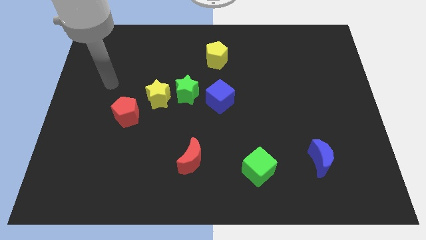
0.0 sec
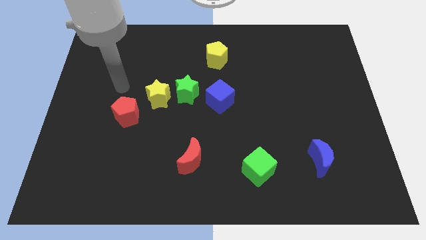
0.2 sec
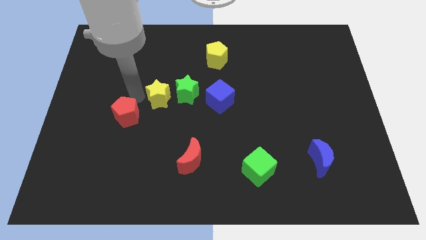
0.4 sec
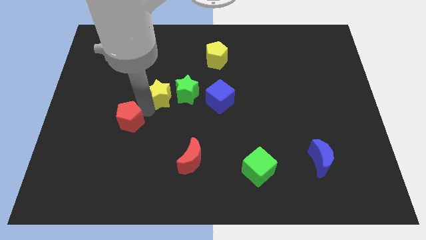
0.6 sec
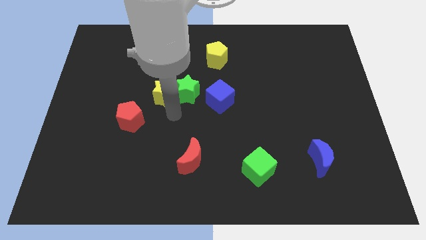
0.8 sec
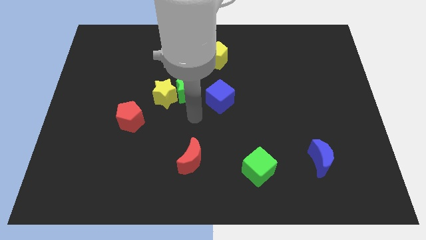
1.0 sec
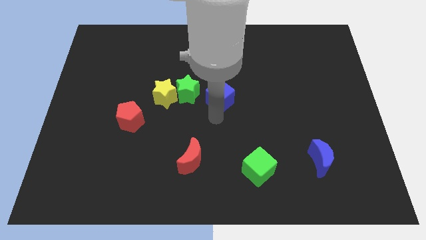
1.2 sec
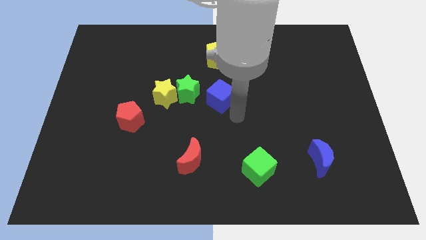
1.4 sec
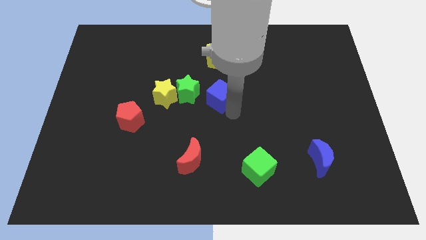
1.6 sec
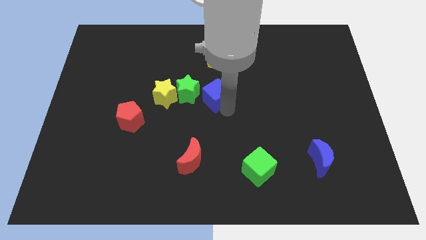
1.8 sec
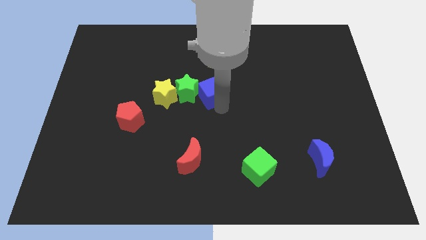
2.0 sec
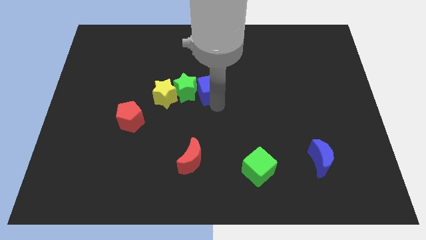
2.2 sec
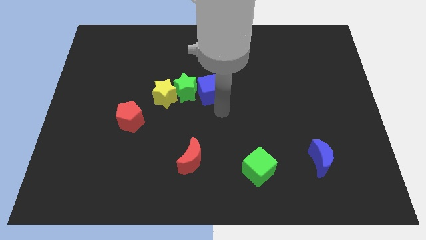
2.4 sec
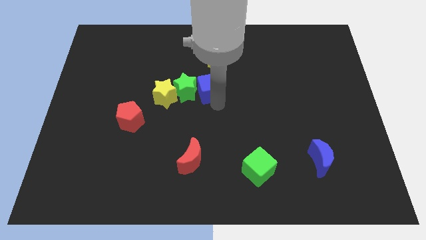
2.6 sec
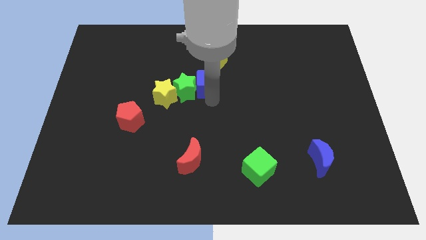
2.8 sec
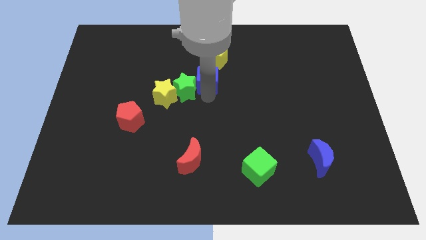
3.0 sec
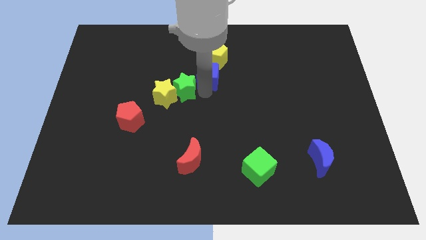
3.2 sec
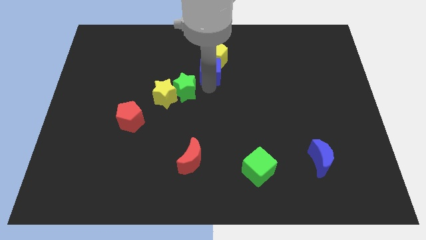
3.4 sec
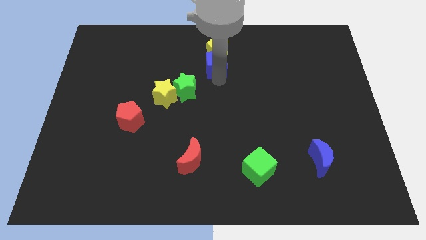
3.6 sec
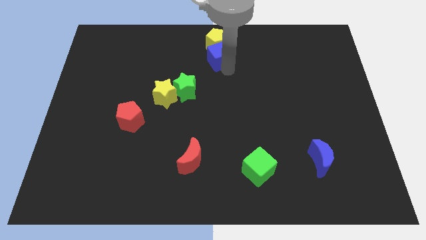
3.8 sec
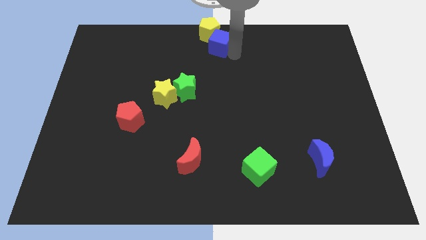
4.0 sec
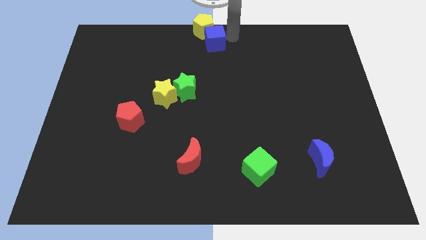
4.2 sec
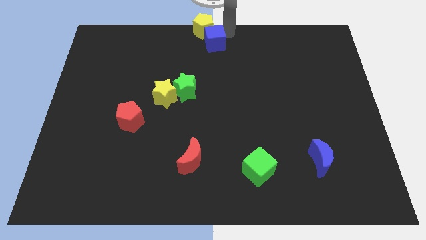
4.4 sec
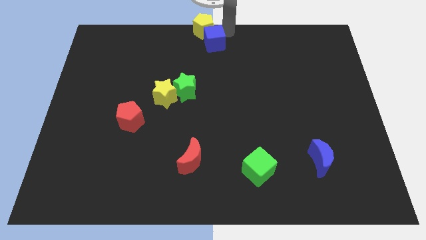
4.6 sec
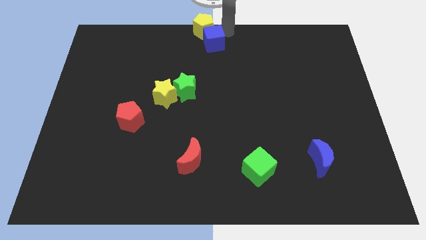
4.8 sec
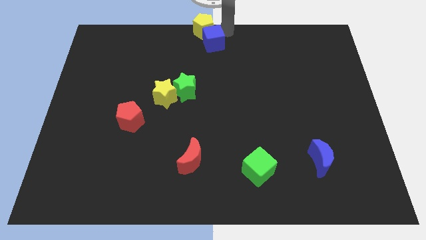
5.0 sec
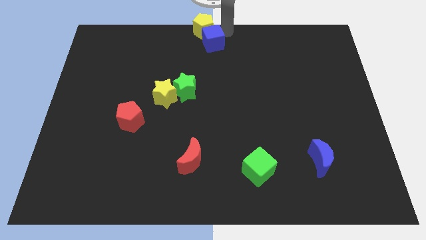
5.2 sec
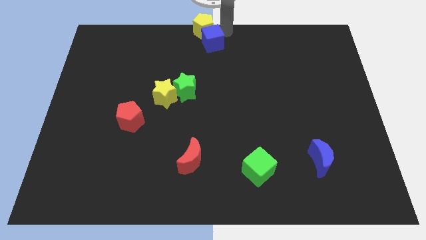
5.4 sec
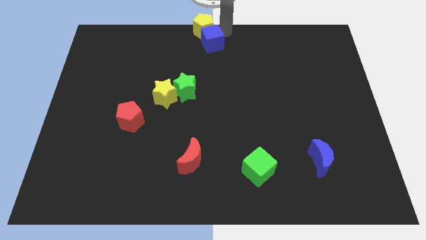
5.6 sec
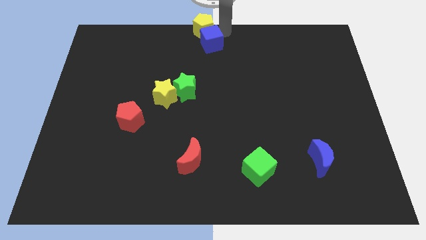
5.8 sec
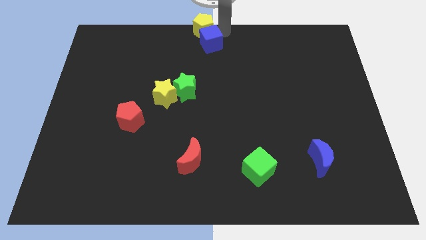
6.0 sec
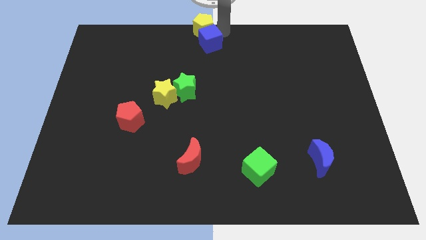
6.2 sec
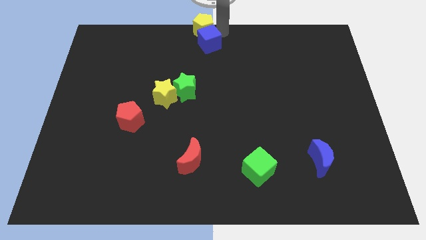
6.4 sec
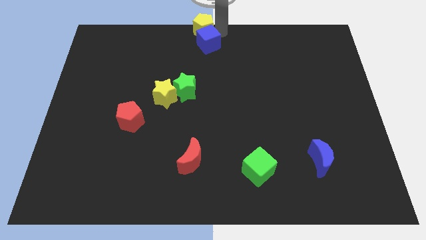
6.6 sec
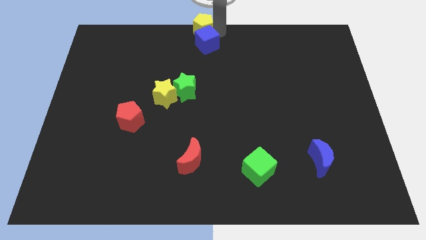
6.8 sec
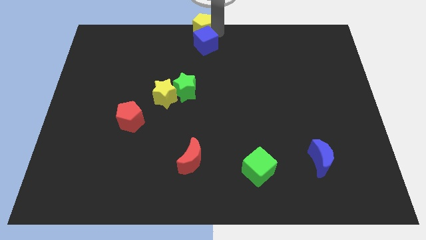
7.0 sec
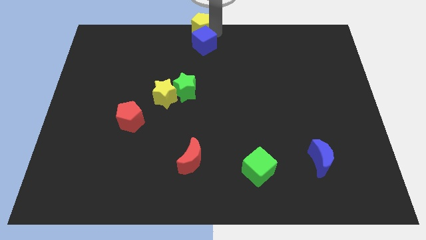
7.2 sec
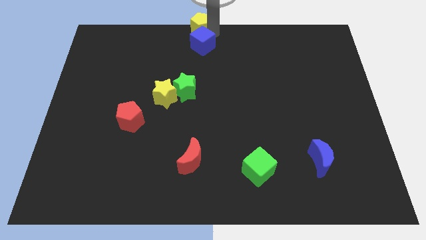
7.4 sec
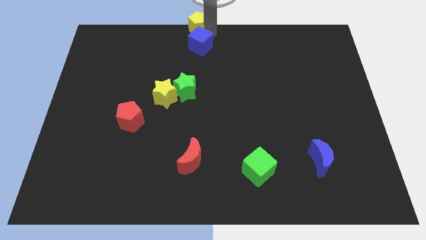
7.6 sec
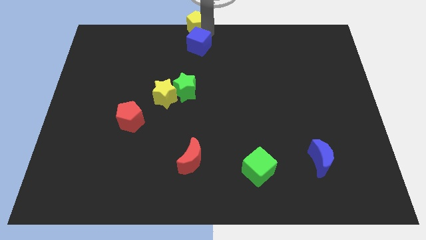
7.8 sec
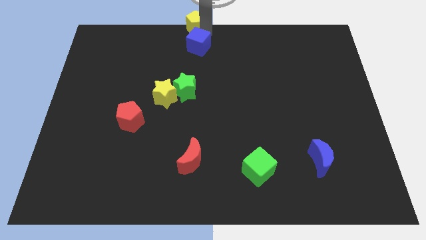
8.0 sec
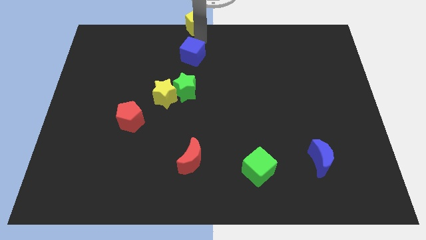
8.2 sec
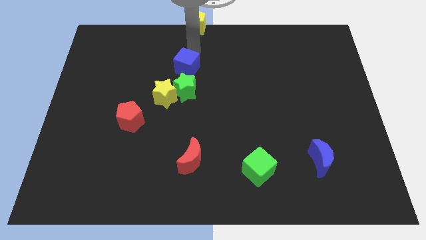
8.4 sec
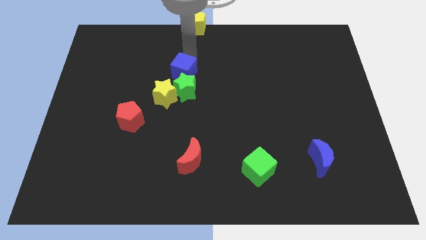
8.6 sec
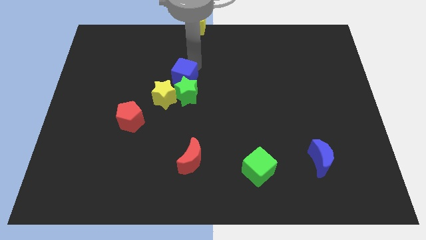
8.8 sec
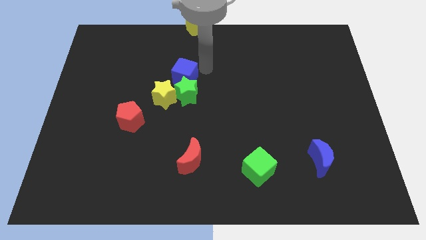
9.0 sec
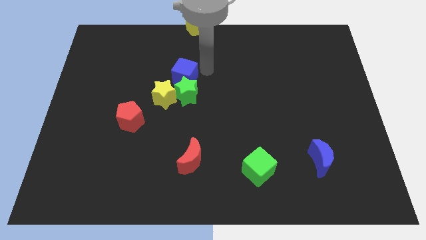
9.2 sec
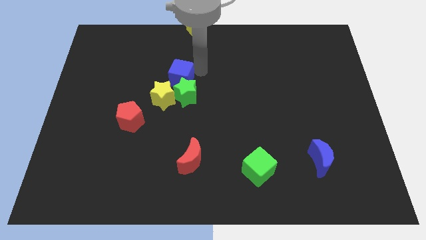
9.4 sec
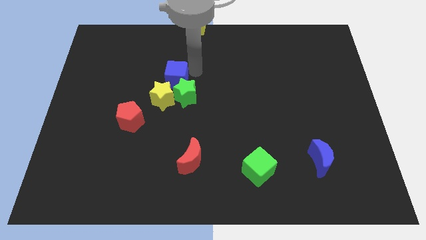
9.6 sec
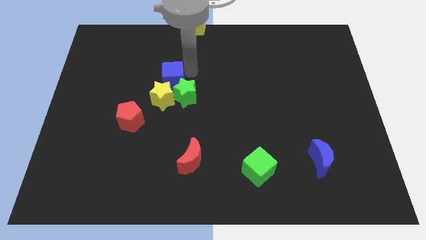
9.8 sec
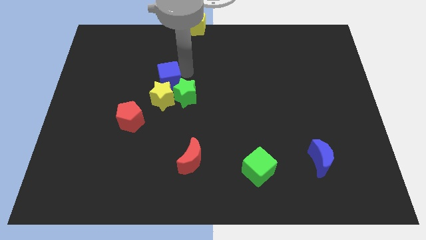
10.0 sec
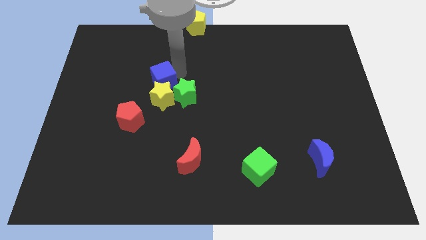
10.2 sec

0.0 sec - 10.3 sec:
slide the blue cube to the left side of the green star

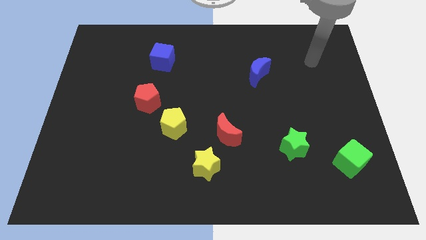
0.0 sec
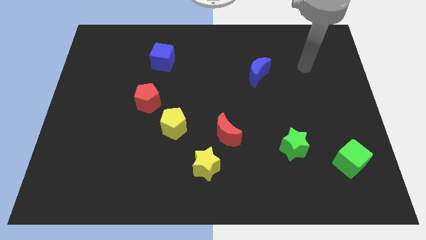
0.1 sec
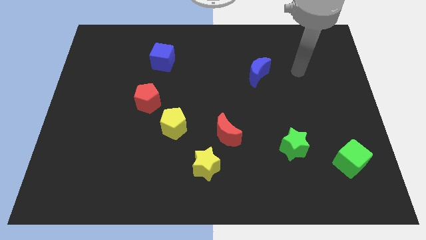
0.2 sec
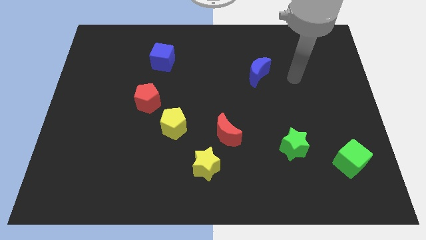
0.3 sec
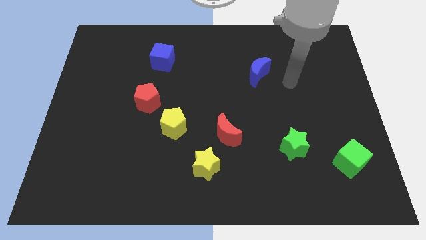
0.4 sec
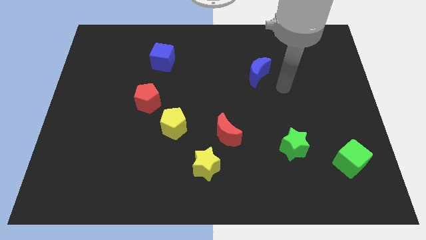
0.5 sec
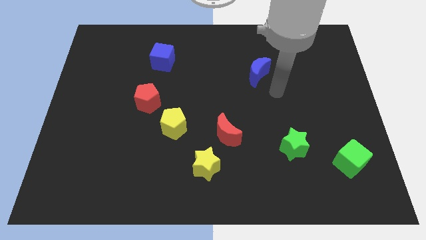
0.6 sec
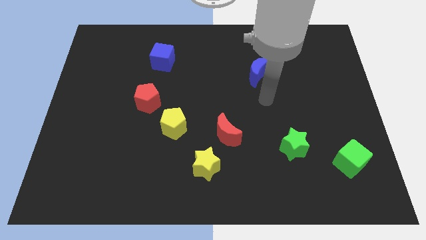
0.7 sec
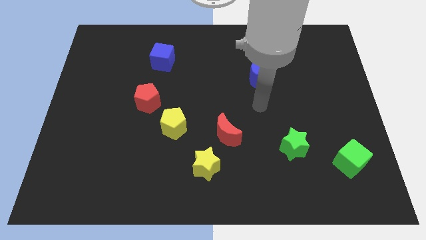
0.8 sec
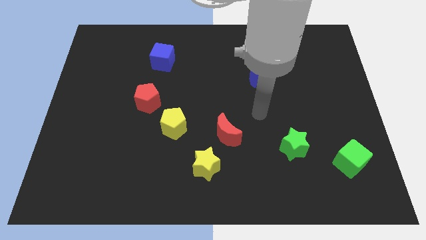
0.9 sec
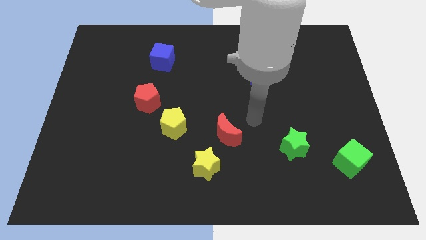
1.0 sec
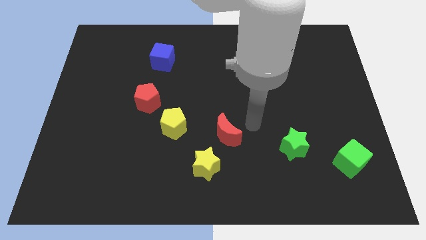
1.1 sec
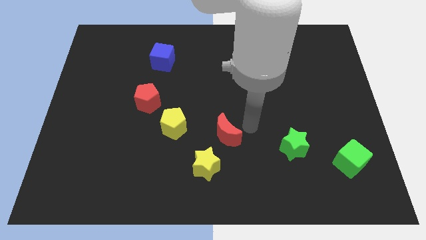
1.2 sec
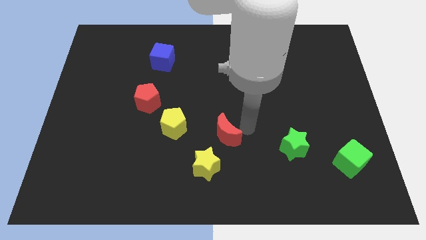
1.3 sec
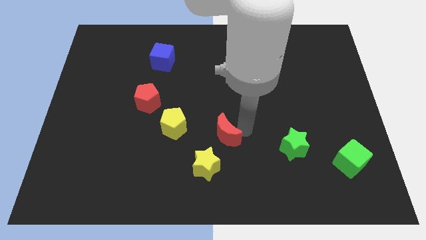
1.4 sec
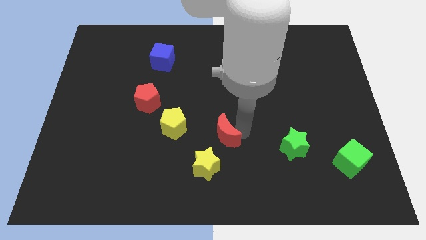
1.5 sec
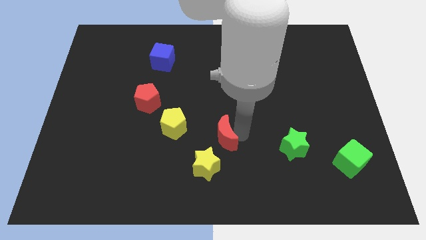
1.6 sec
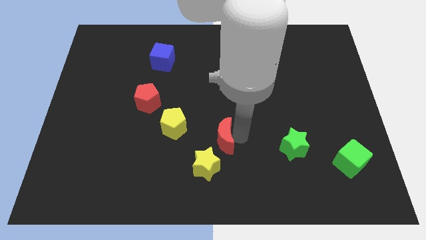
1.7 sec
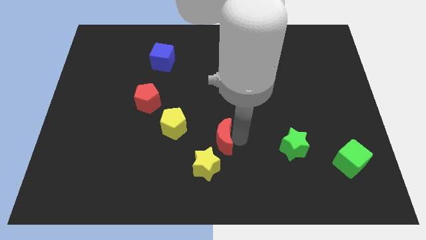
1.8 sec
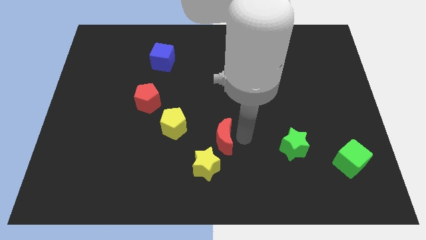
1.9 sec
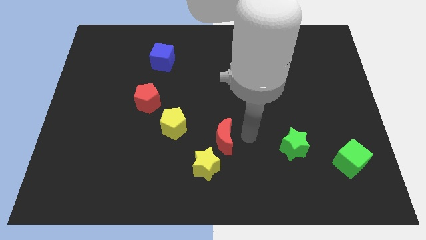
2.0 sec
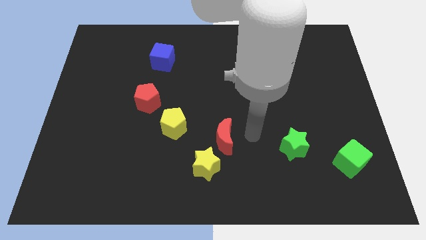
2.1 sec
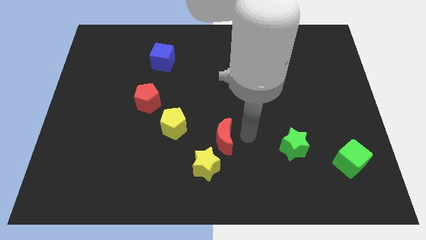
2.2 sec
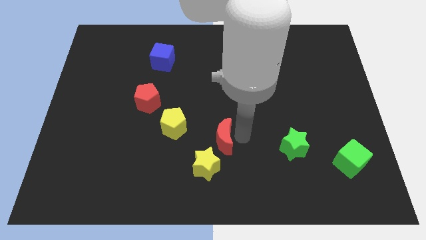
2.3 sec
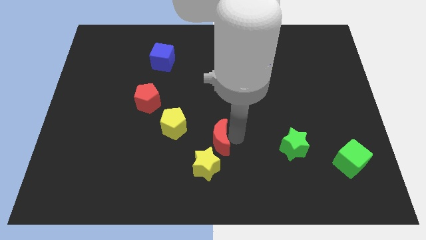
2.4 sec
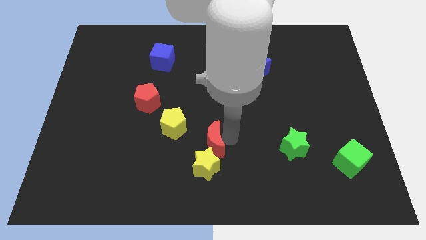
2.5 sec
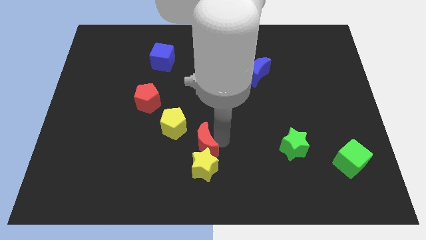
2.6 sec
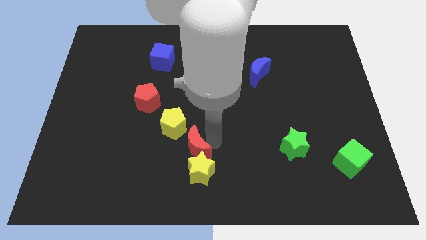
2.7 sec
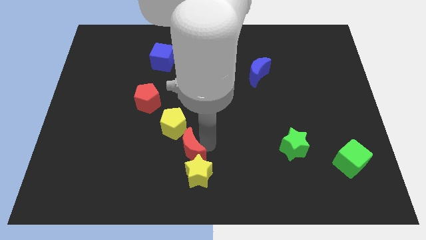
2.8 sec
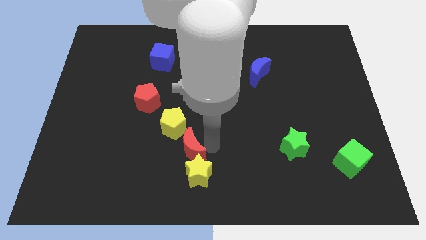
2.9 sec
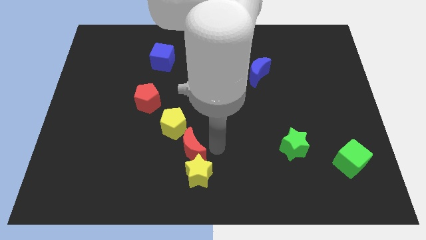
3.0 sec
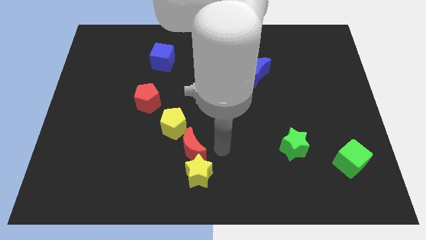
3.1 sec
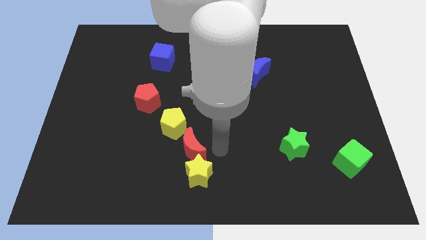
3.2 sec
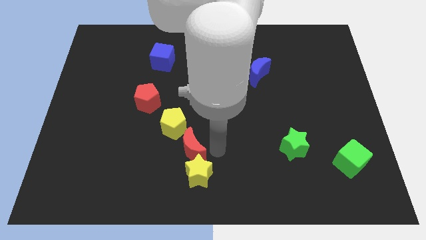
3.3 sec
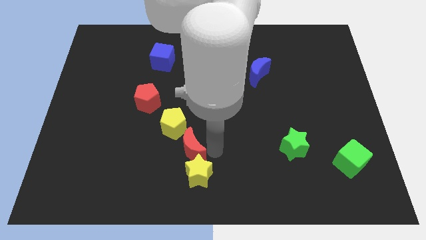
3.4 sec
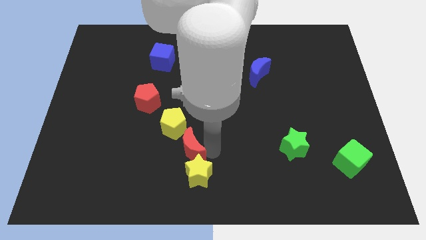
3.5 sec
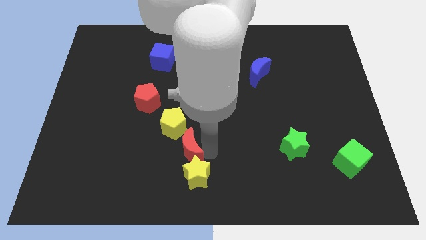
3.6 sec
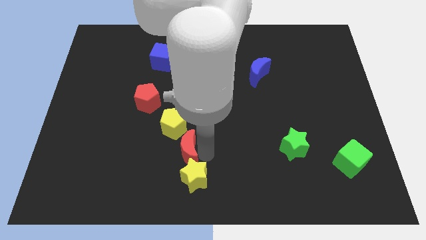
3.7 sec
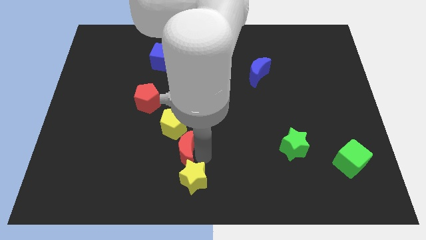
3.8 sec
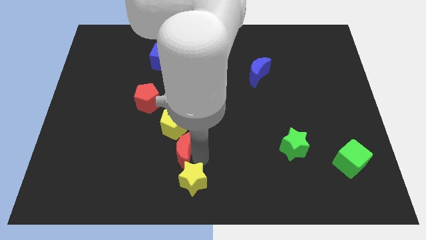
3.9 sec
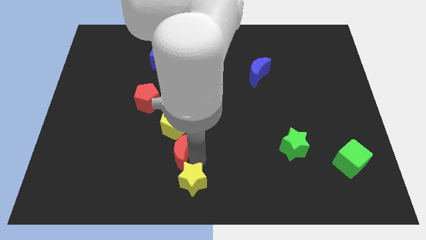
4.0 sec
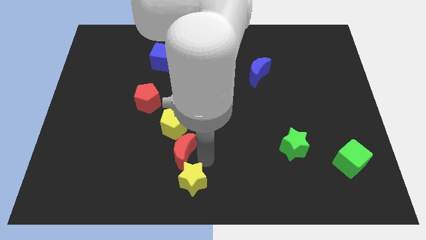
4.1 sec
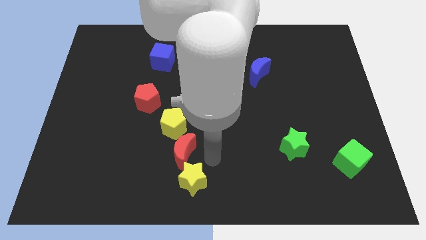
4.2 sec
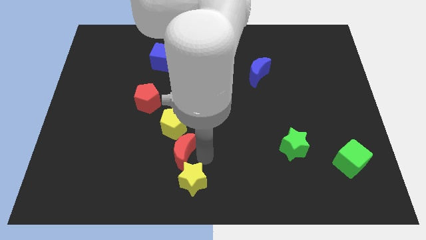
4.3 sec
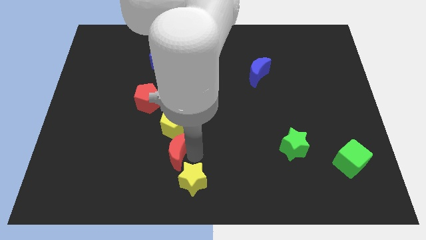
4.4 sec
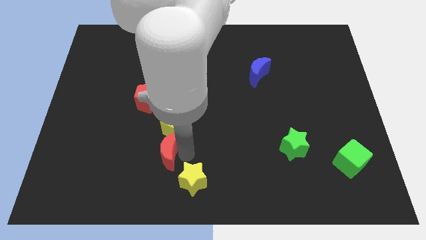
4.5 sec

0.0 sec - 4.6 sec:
put the red moon to the bottom left of the yellow pentagon
